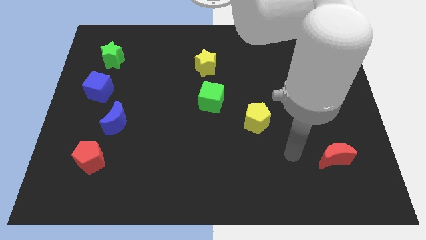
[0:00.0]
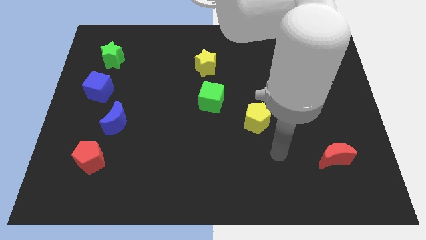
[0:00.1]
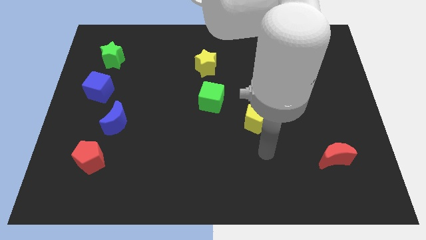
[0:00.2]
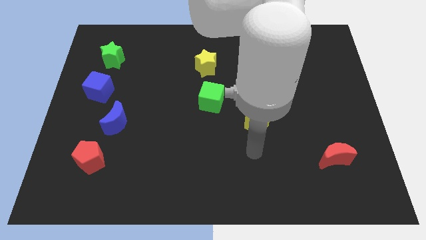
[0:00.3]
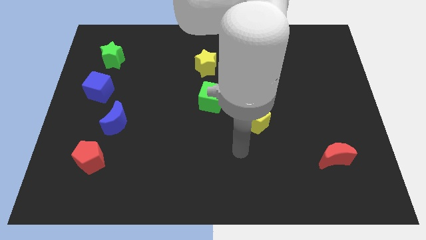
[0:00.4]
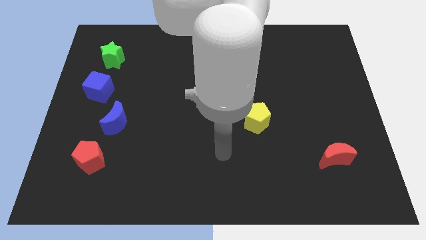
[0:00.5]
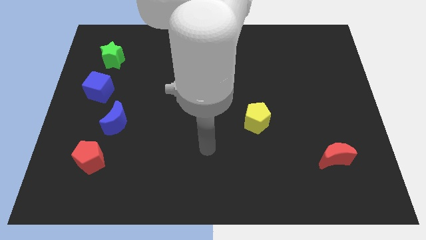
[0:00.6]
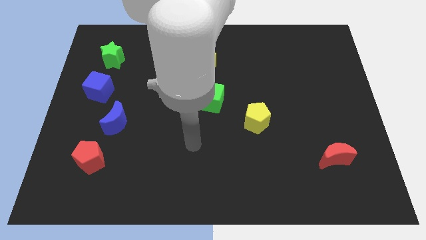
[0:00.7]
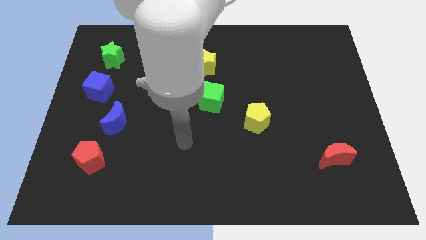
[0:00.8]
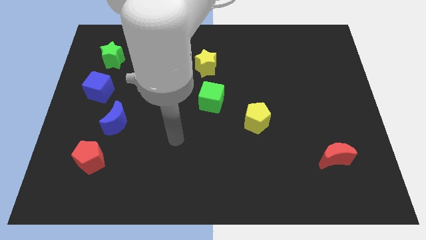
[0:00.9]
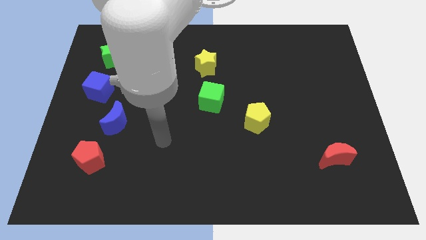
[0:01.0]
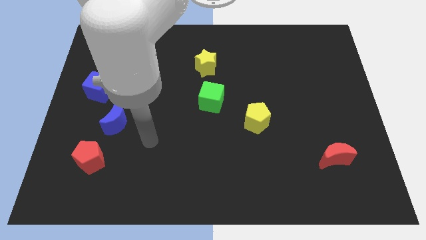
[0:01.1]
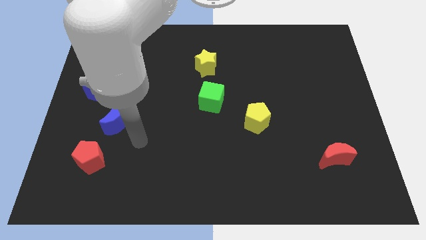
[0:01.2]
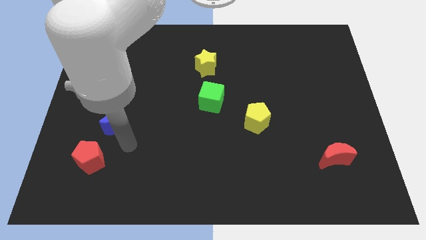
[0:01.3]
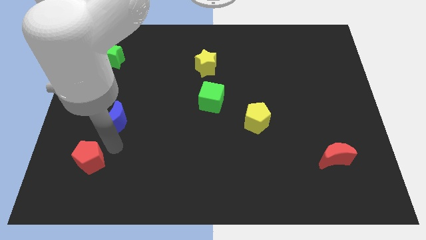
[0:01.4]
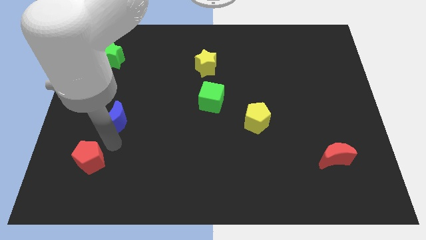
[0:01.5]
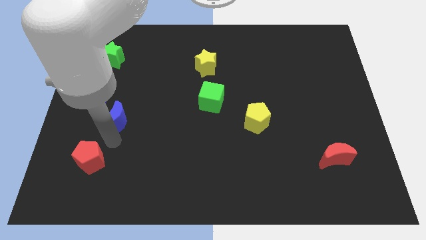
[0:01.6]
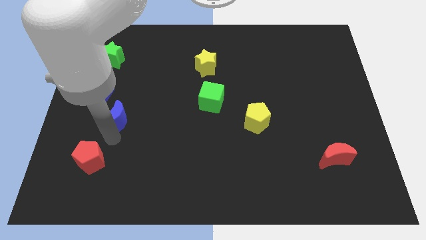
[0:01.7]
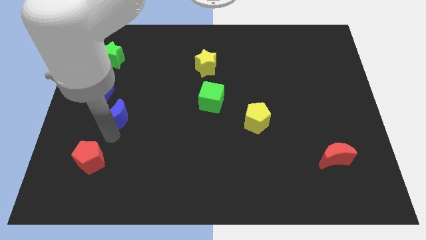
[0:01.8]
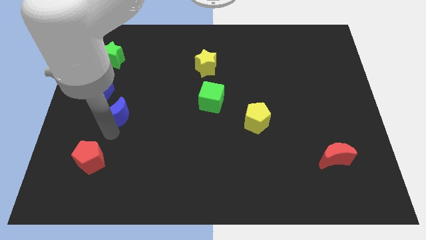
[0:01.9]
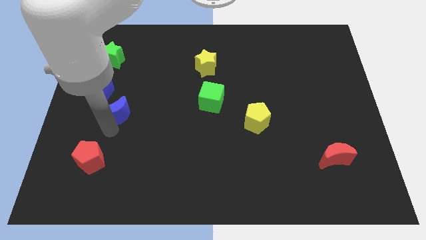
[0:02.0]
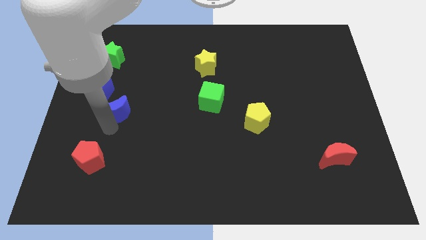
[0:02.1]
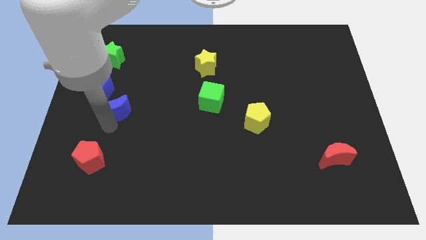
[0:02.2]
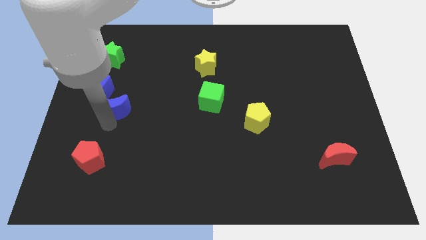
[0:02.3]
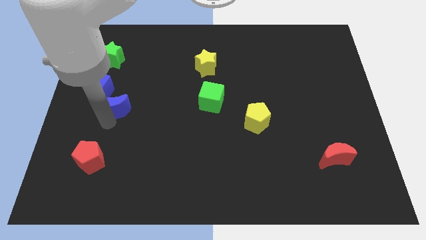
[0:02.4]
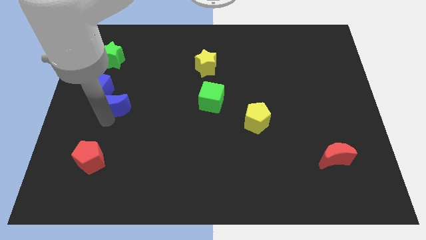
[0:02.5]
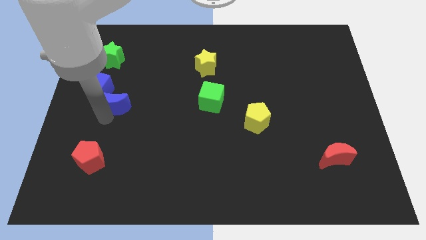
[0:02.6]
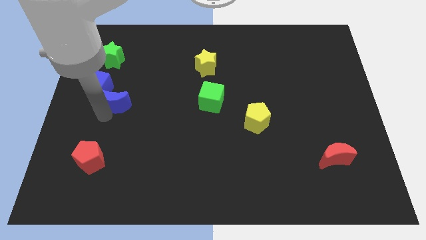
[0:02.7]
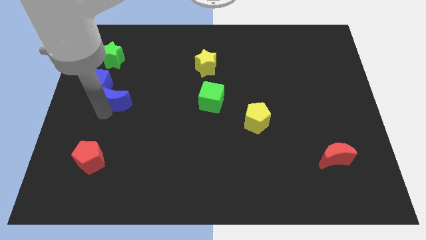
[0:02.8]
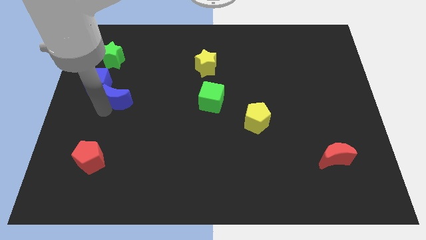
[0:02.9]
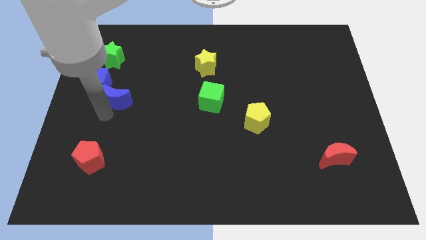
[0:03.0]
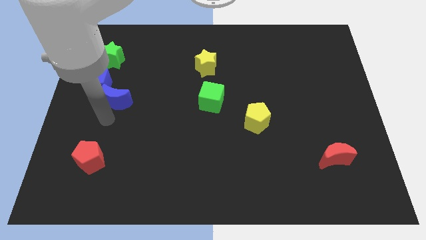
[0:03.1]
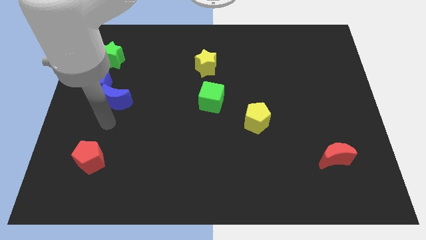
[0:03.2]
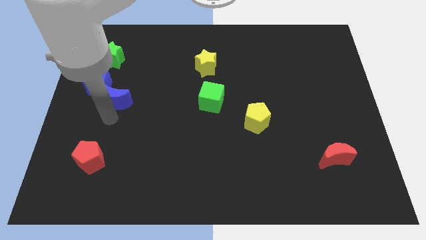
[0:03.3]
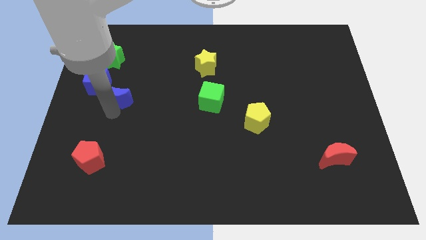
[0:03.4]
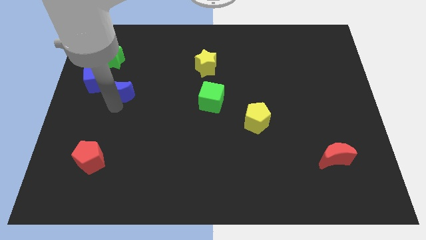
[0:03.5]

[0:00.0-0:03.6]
move the blue moon upwards slightly

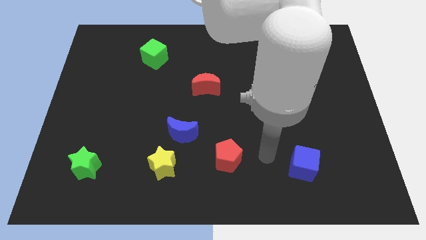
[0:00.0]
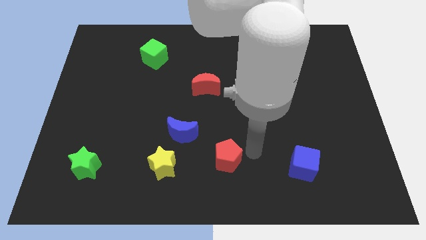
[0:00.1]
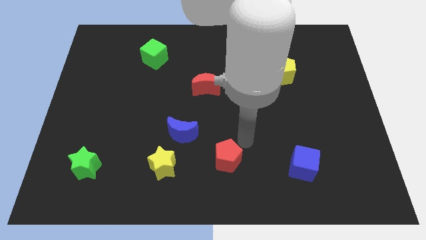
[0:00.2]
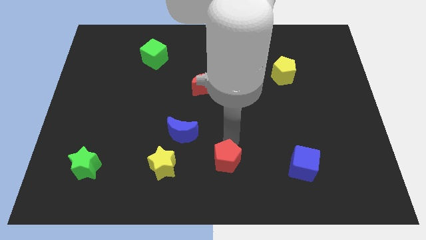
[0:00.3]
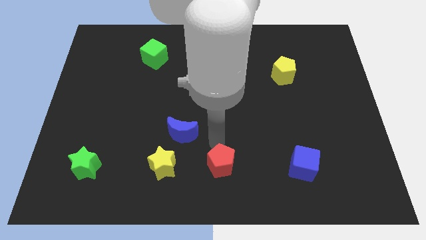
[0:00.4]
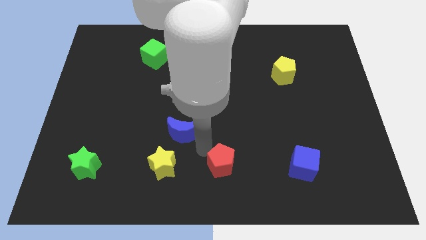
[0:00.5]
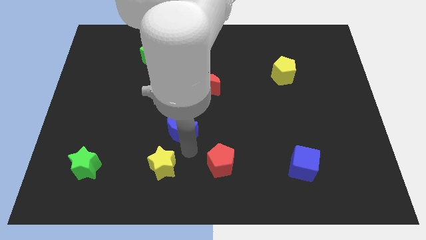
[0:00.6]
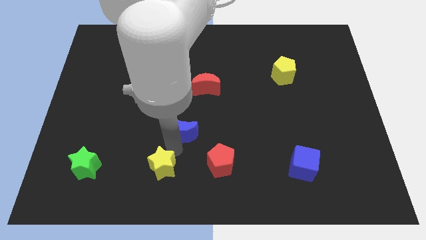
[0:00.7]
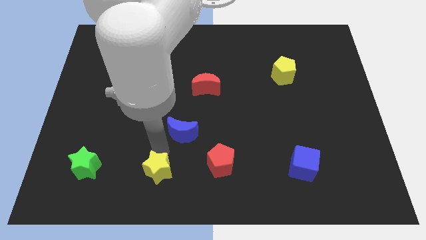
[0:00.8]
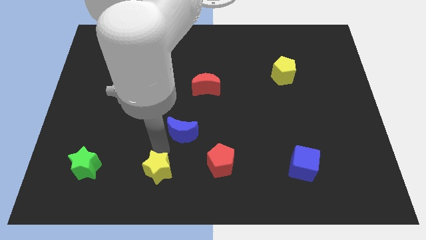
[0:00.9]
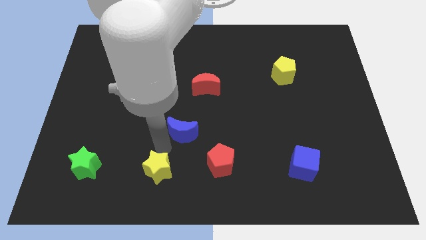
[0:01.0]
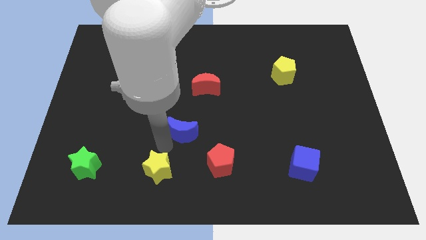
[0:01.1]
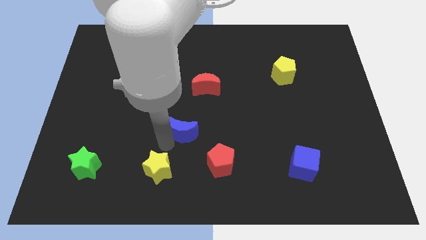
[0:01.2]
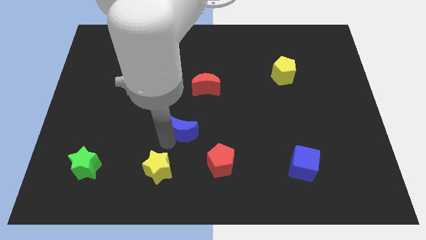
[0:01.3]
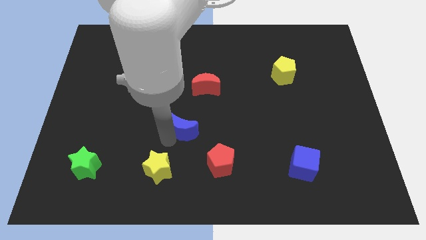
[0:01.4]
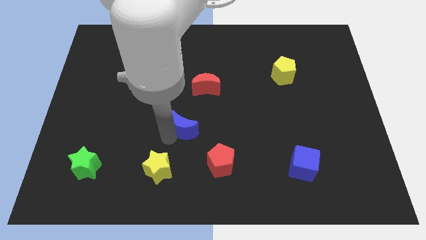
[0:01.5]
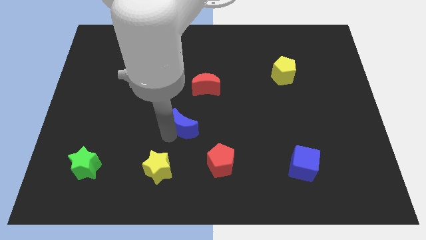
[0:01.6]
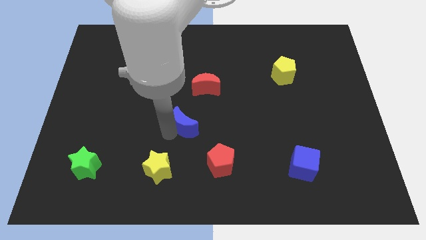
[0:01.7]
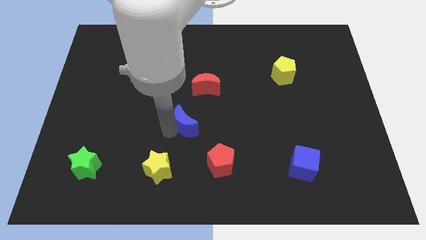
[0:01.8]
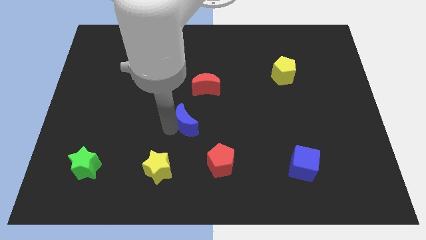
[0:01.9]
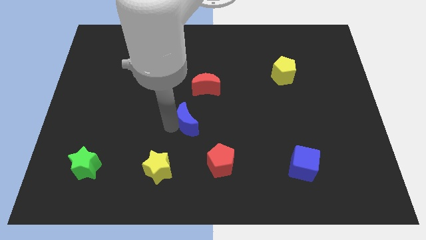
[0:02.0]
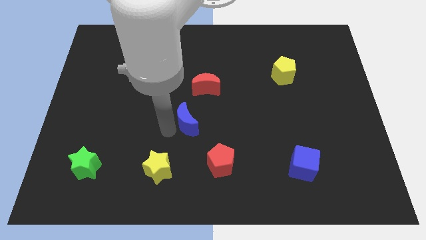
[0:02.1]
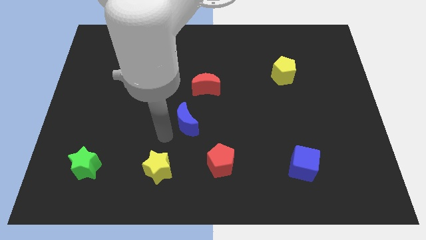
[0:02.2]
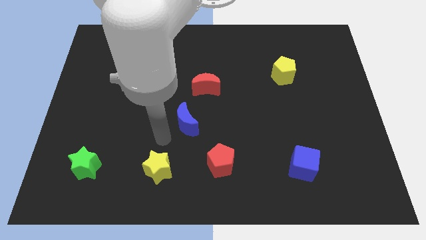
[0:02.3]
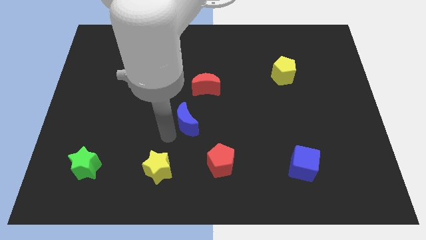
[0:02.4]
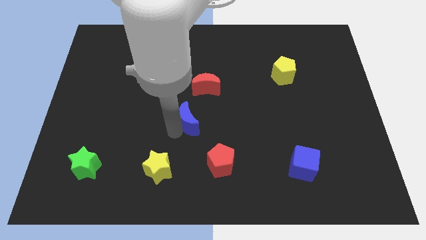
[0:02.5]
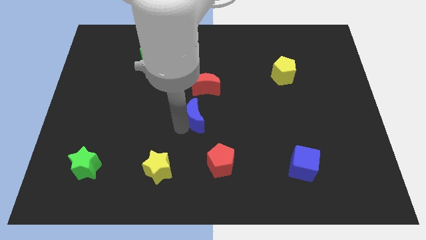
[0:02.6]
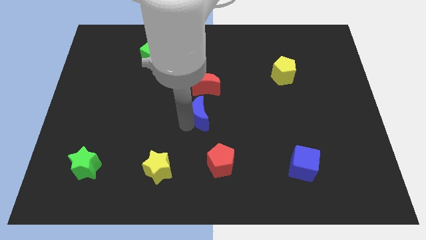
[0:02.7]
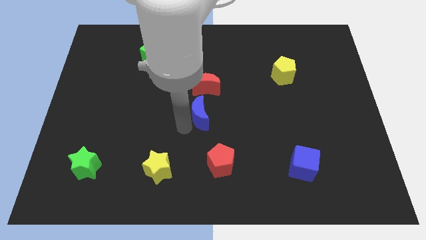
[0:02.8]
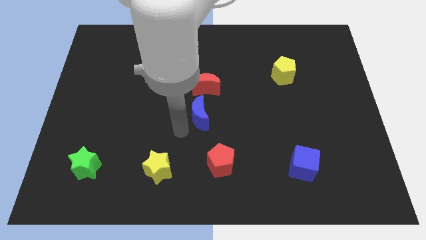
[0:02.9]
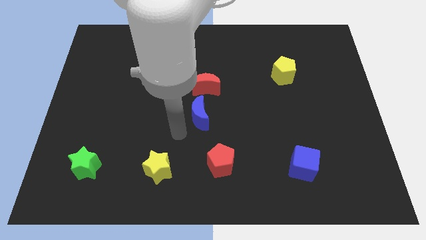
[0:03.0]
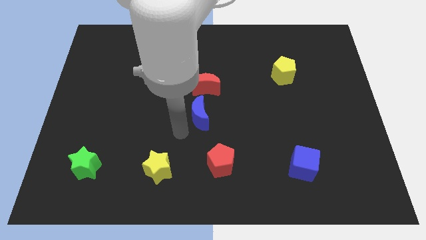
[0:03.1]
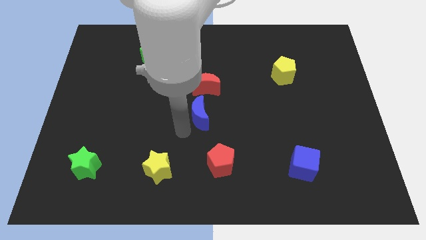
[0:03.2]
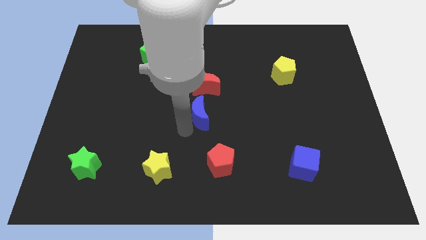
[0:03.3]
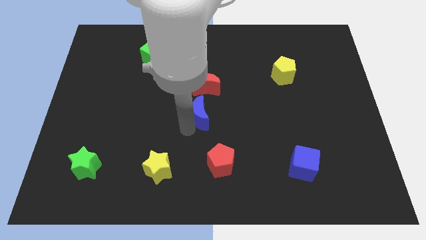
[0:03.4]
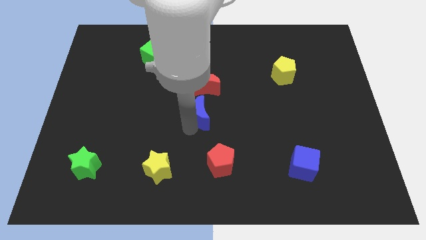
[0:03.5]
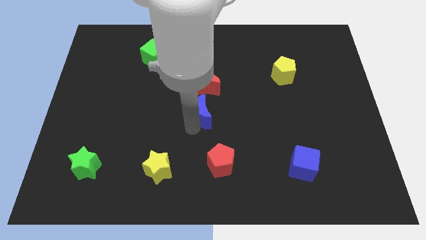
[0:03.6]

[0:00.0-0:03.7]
slide the blue moon up and right diagonally somewhat

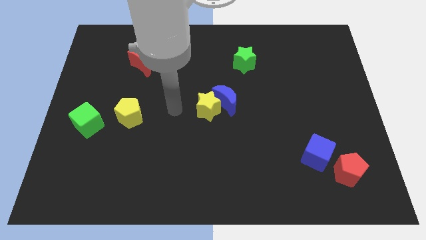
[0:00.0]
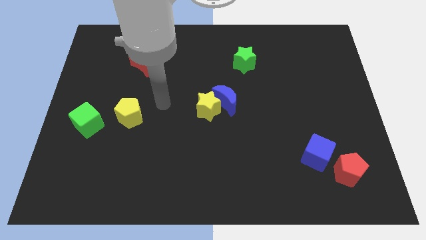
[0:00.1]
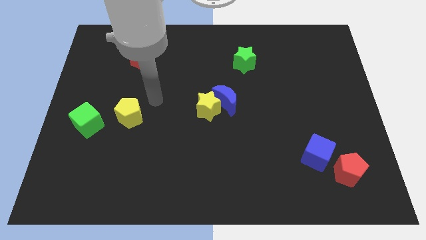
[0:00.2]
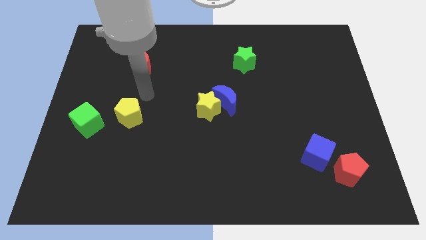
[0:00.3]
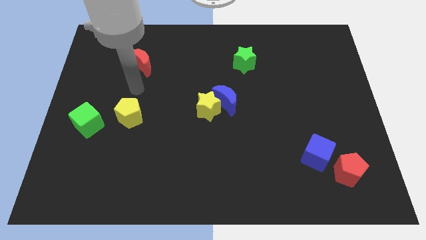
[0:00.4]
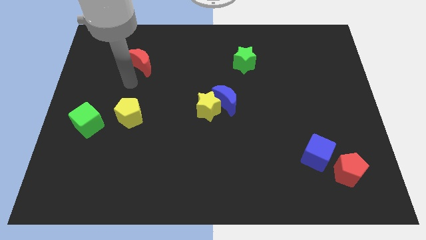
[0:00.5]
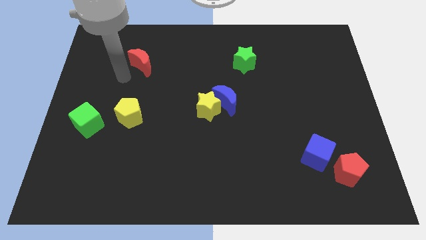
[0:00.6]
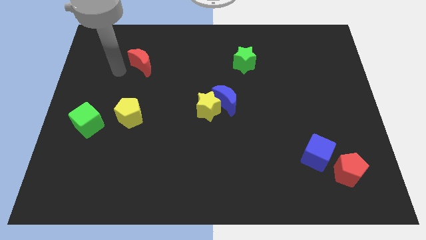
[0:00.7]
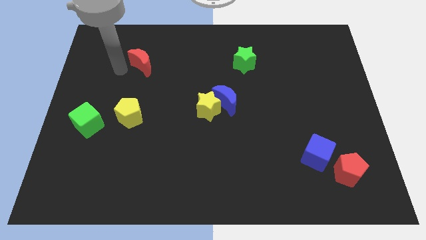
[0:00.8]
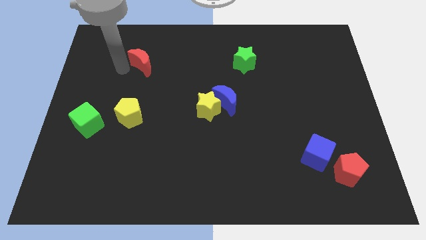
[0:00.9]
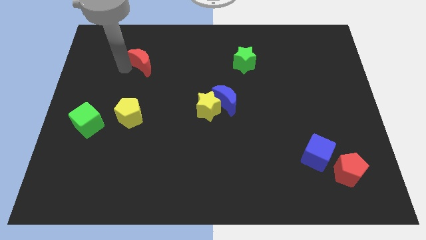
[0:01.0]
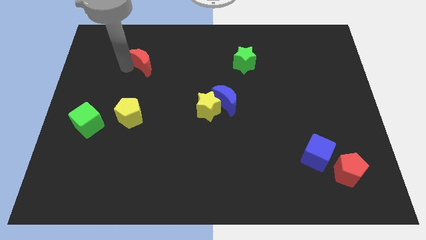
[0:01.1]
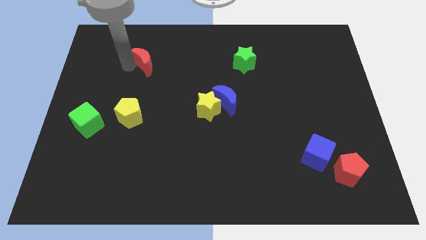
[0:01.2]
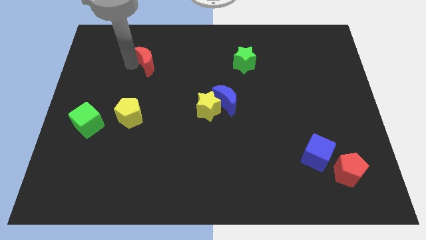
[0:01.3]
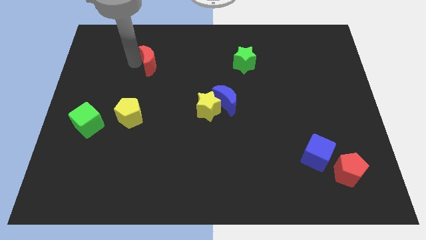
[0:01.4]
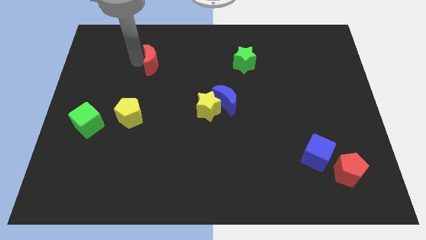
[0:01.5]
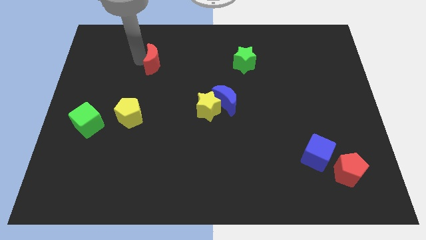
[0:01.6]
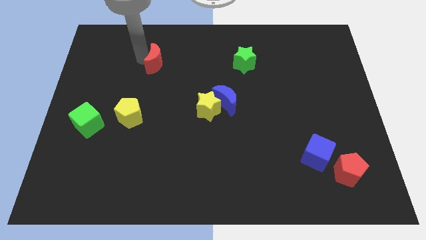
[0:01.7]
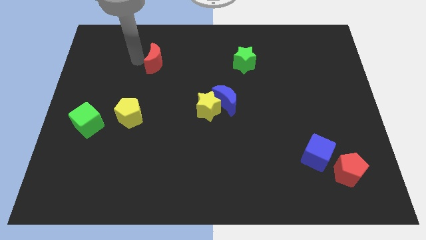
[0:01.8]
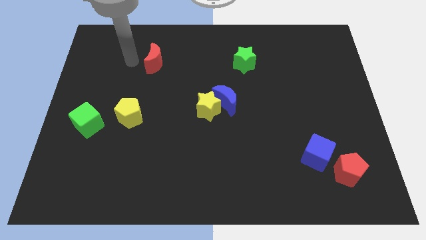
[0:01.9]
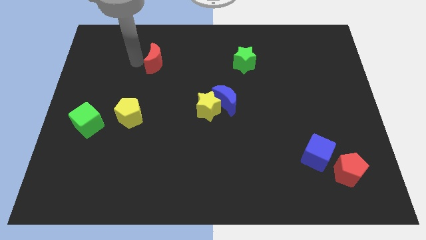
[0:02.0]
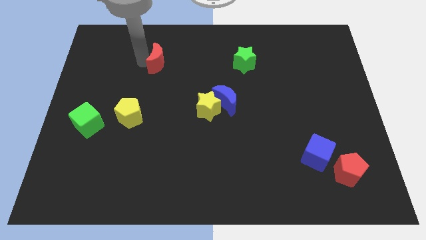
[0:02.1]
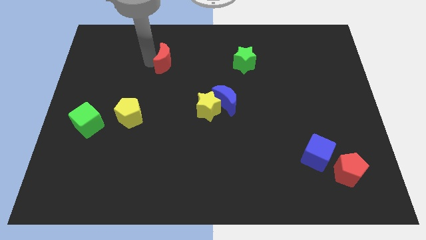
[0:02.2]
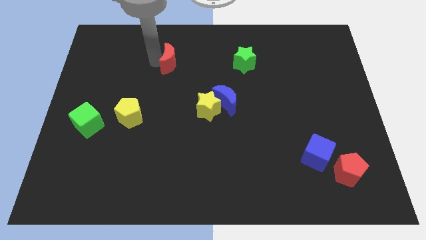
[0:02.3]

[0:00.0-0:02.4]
slightly move the red moon to the right
